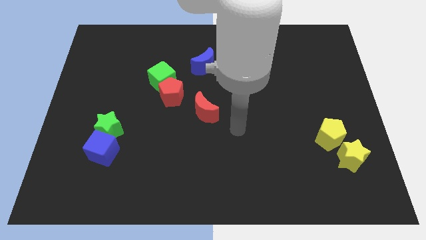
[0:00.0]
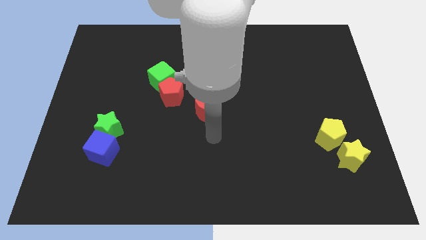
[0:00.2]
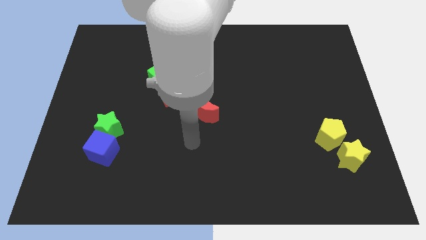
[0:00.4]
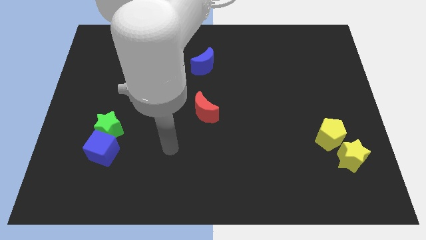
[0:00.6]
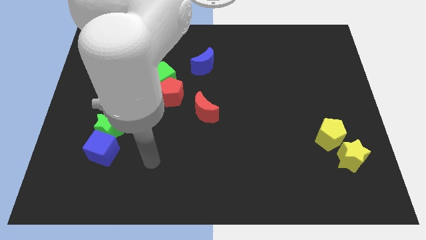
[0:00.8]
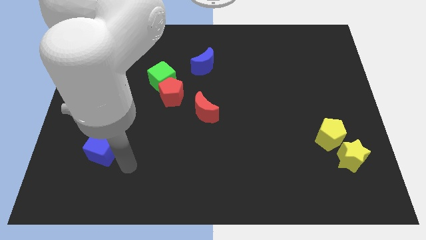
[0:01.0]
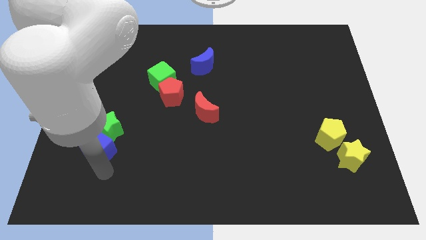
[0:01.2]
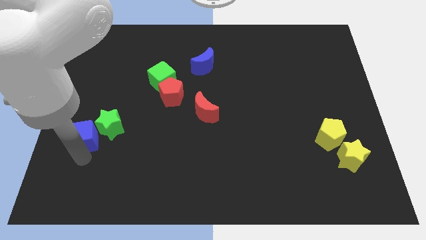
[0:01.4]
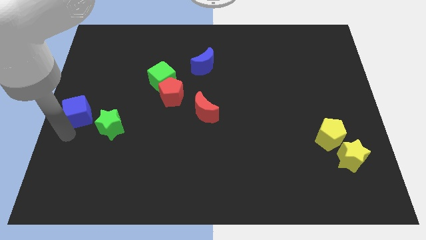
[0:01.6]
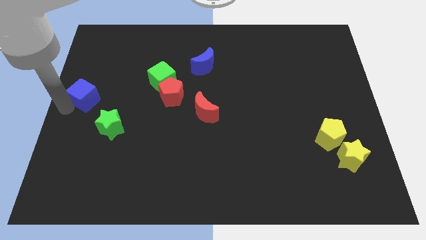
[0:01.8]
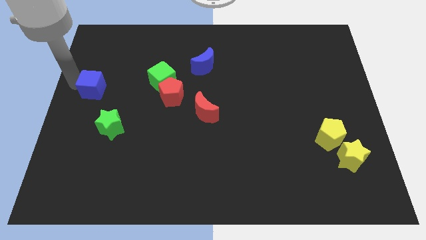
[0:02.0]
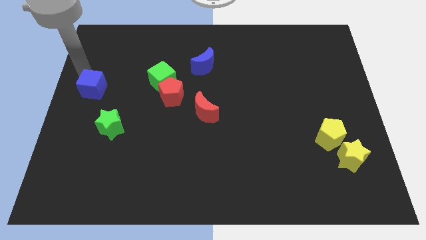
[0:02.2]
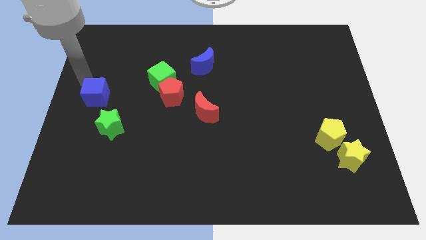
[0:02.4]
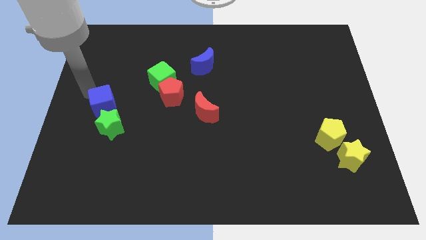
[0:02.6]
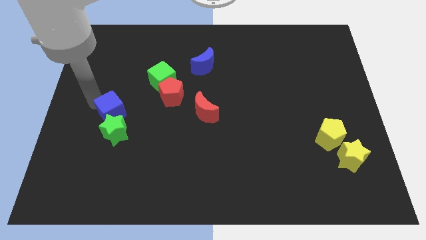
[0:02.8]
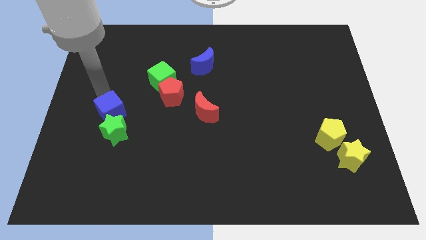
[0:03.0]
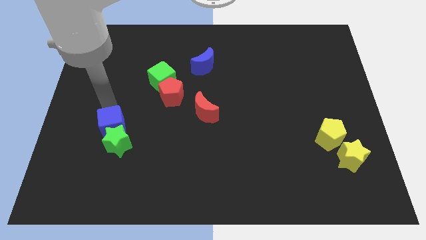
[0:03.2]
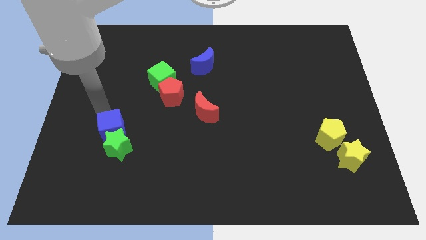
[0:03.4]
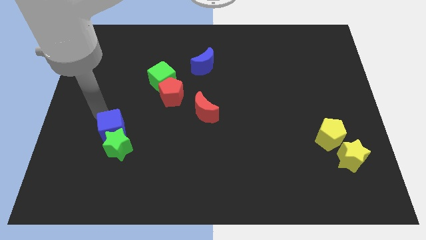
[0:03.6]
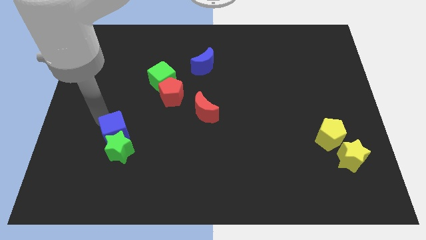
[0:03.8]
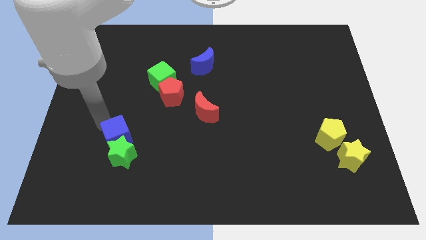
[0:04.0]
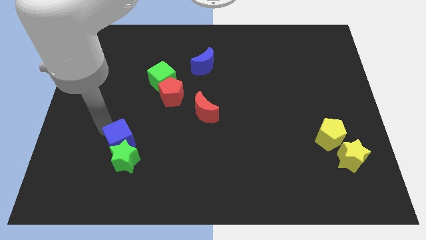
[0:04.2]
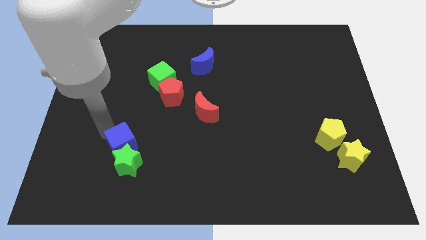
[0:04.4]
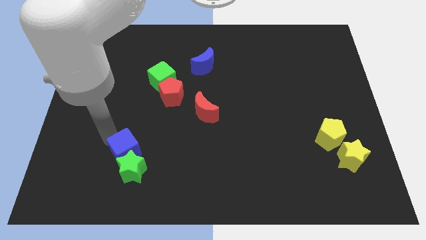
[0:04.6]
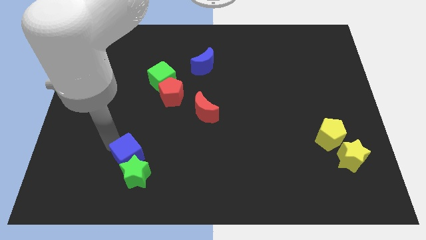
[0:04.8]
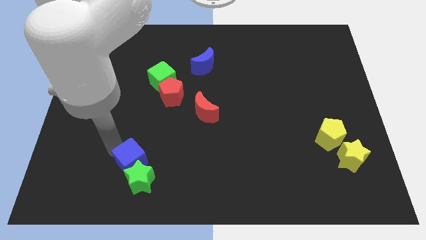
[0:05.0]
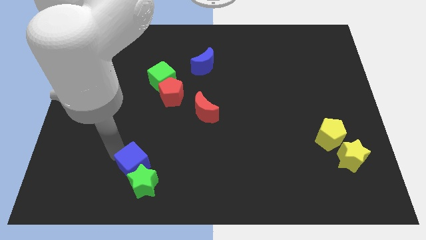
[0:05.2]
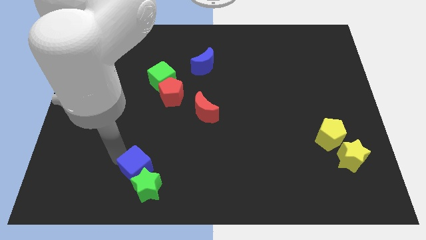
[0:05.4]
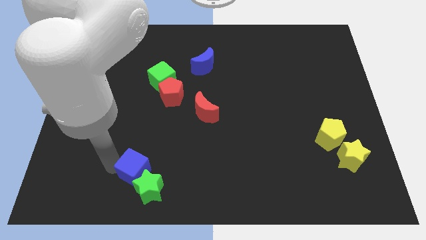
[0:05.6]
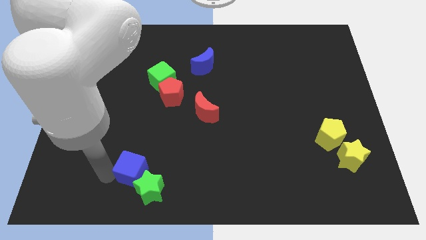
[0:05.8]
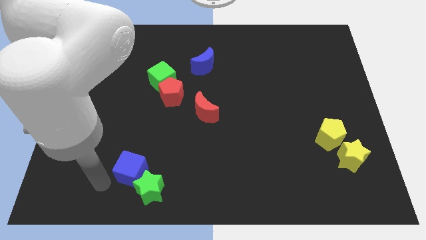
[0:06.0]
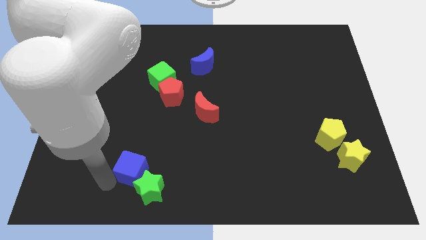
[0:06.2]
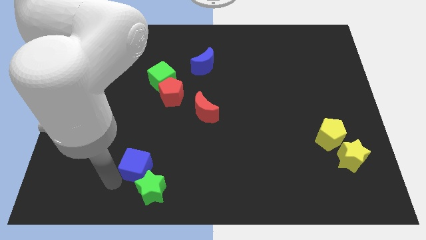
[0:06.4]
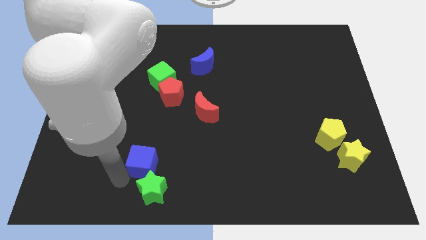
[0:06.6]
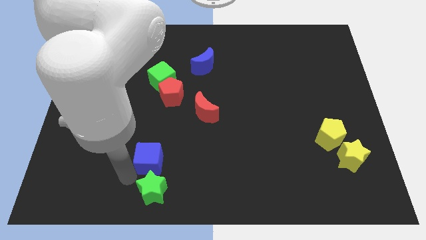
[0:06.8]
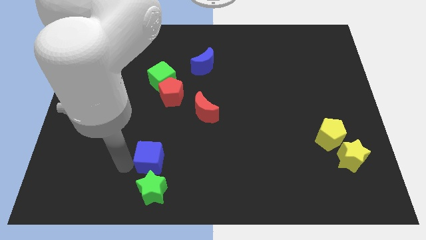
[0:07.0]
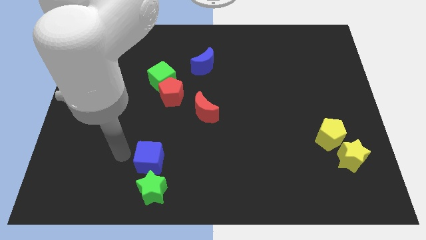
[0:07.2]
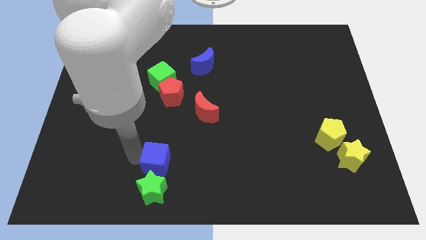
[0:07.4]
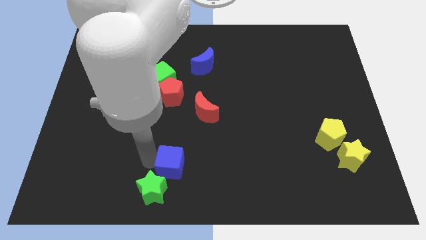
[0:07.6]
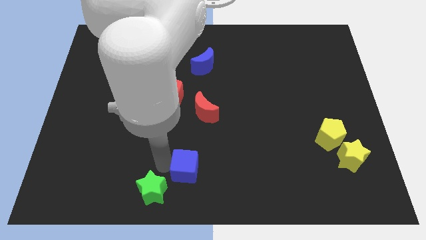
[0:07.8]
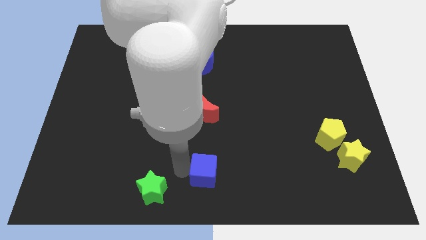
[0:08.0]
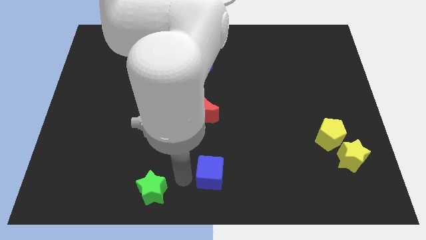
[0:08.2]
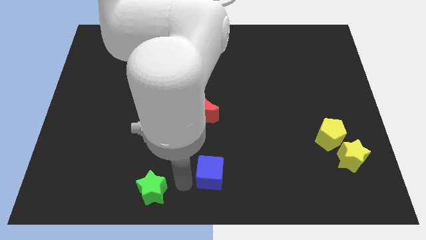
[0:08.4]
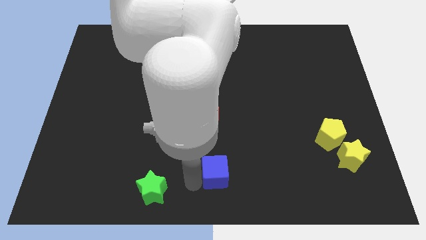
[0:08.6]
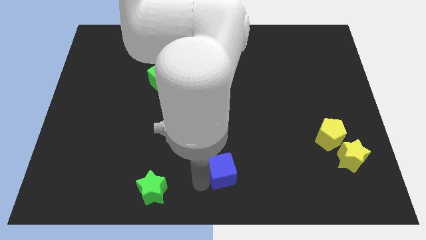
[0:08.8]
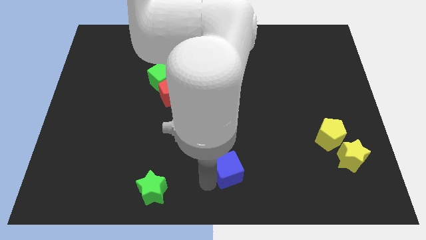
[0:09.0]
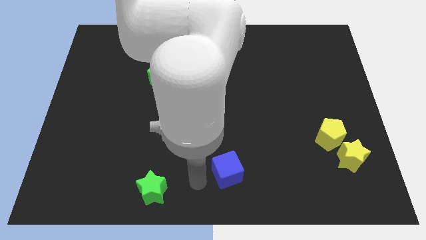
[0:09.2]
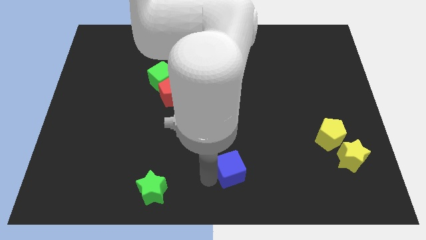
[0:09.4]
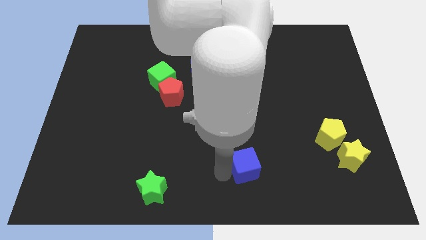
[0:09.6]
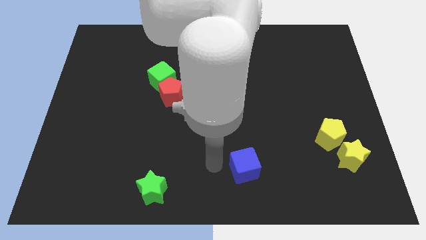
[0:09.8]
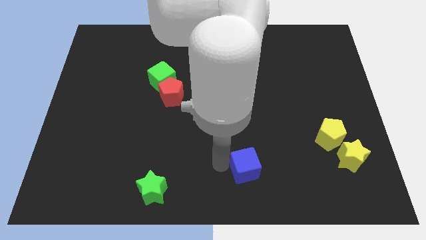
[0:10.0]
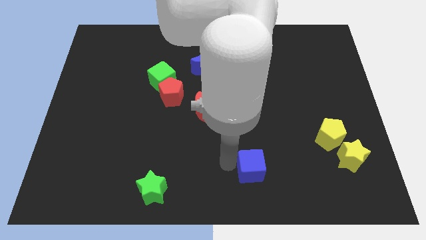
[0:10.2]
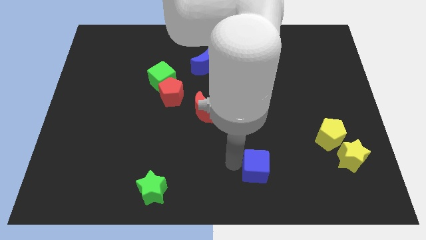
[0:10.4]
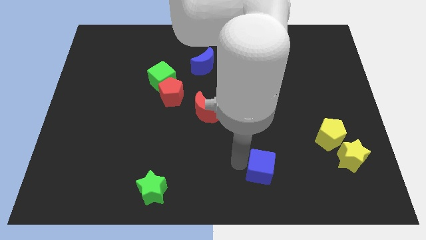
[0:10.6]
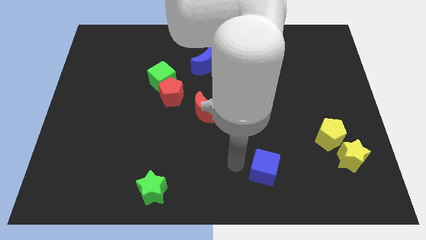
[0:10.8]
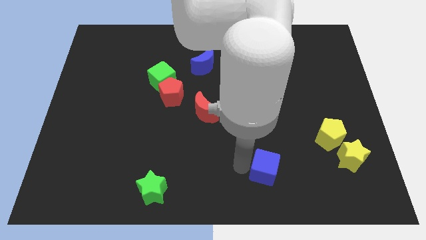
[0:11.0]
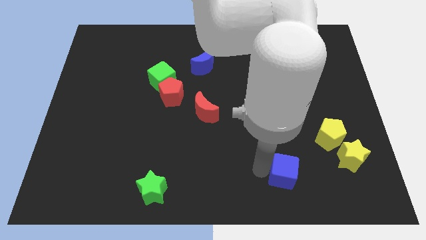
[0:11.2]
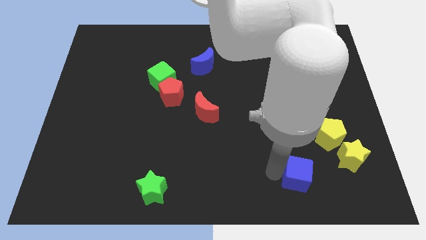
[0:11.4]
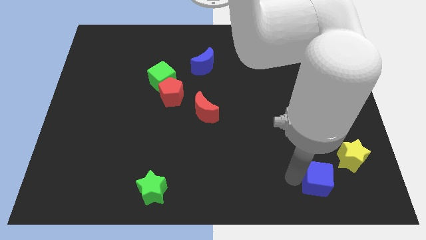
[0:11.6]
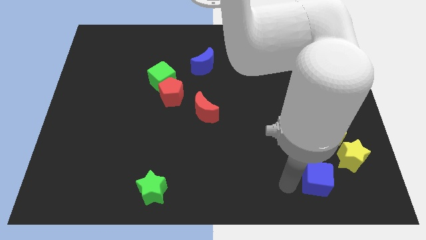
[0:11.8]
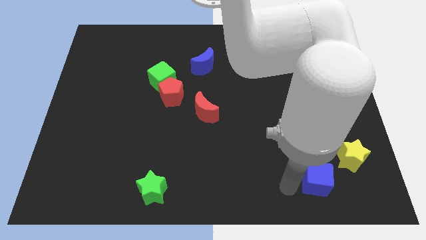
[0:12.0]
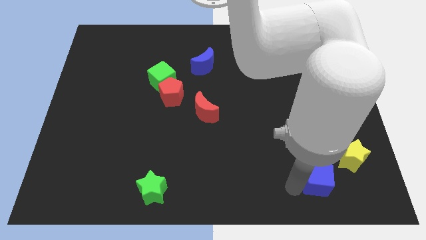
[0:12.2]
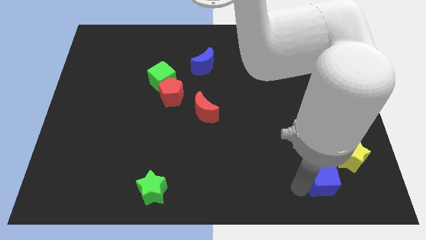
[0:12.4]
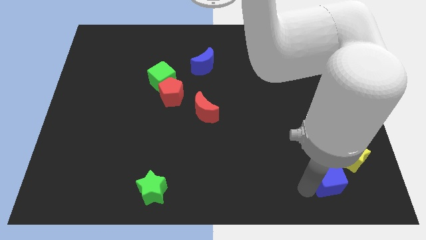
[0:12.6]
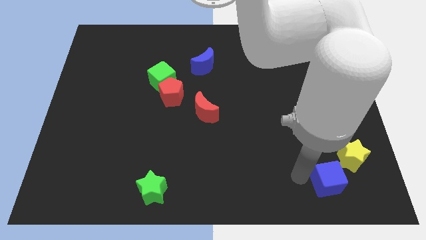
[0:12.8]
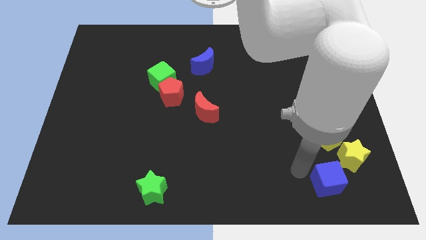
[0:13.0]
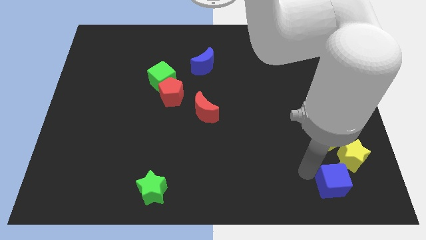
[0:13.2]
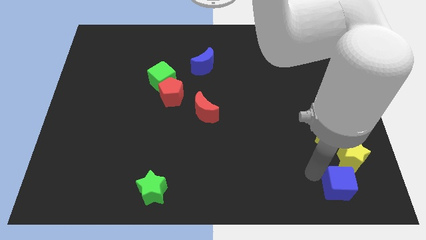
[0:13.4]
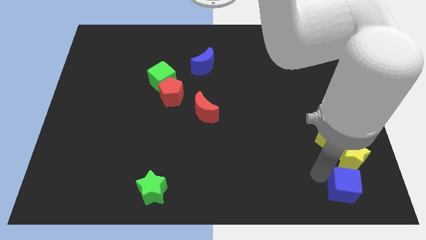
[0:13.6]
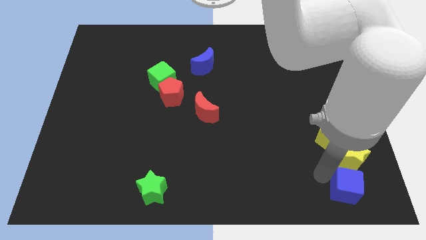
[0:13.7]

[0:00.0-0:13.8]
move the blue cube to the bottom right of the board

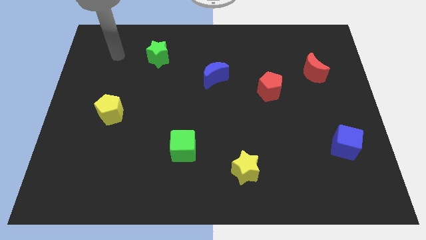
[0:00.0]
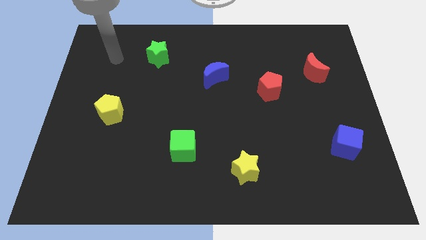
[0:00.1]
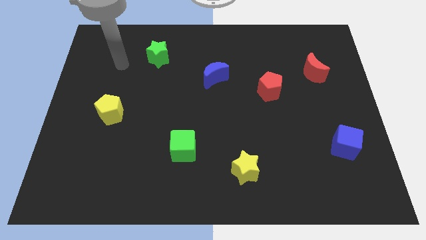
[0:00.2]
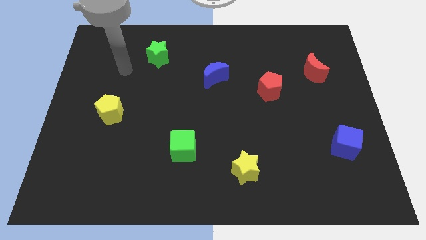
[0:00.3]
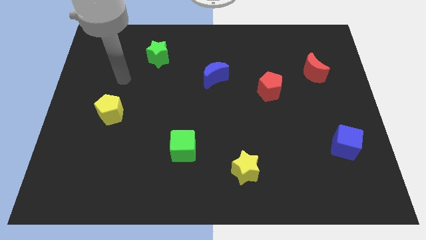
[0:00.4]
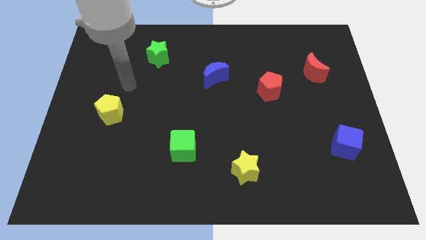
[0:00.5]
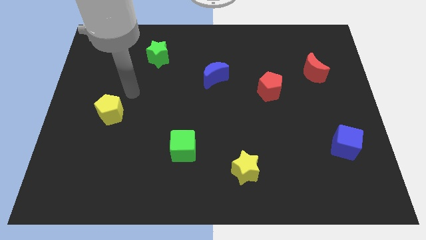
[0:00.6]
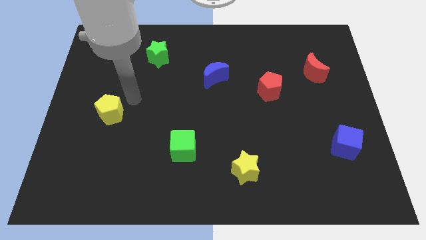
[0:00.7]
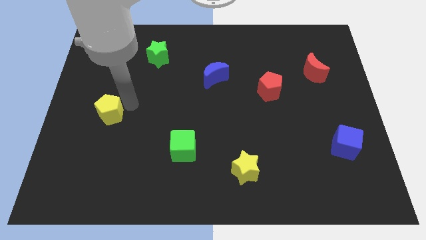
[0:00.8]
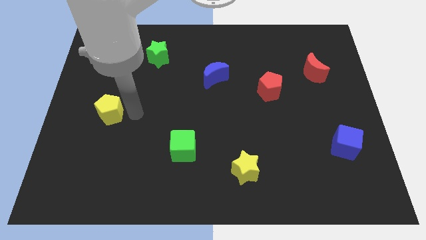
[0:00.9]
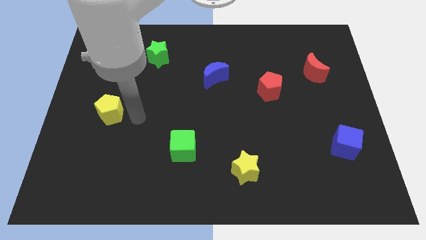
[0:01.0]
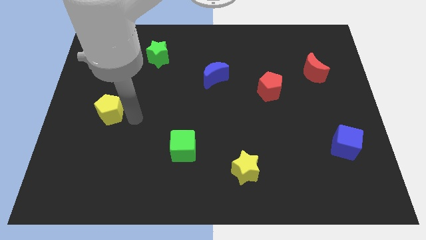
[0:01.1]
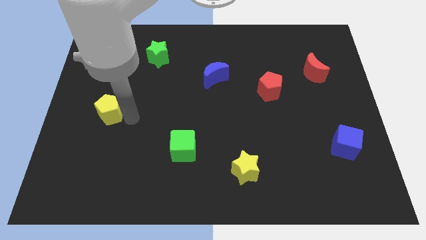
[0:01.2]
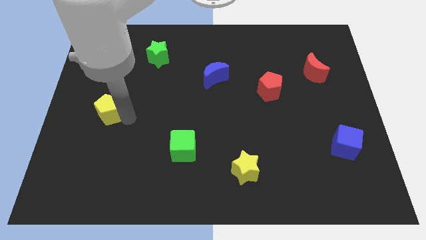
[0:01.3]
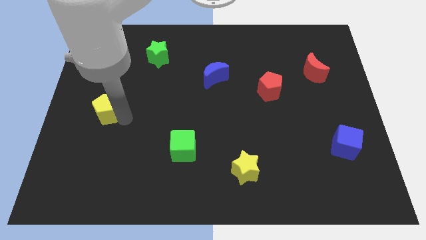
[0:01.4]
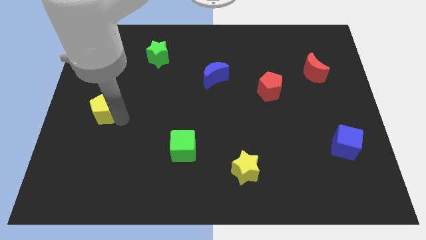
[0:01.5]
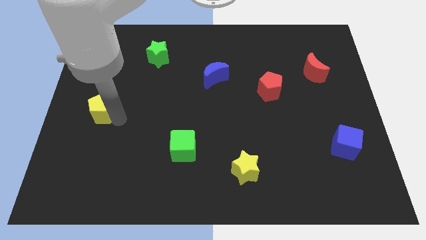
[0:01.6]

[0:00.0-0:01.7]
move the yellow pentagon to the center left
